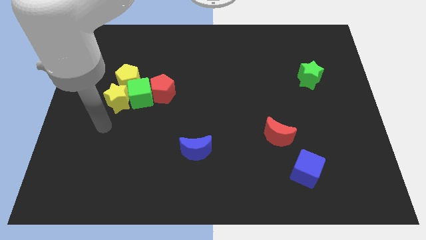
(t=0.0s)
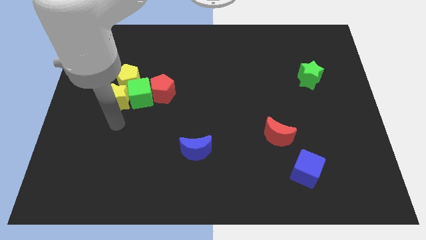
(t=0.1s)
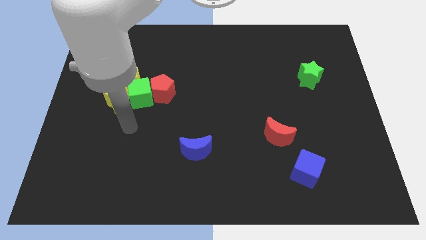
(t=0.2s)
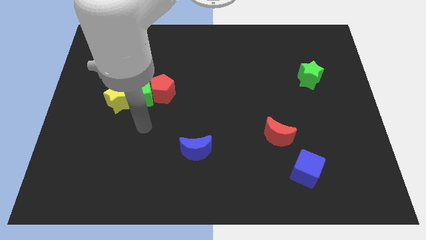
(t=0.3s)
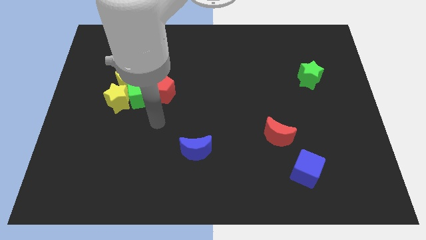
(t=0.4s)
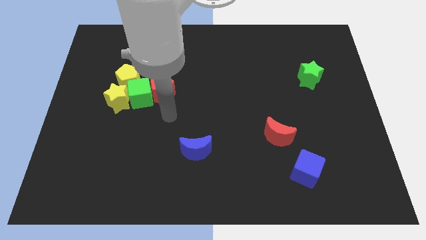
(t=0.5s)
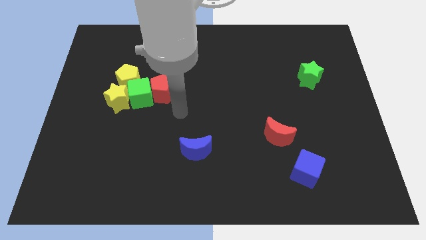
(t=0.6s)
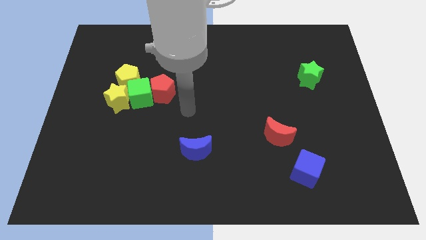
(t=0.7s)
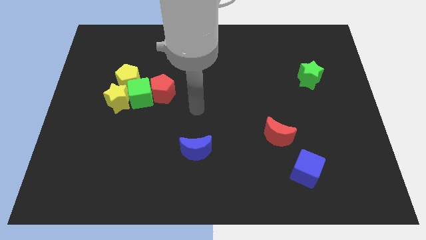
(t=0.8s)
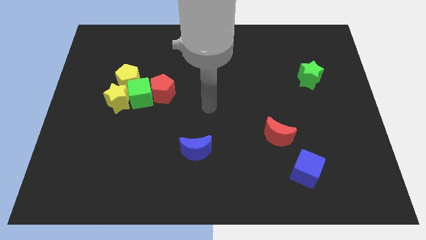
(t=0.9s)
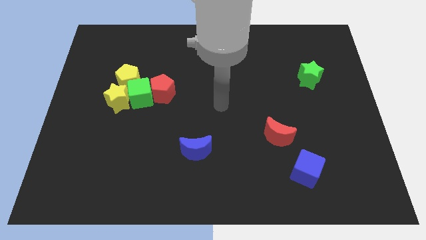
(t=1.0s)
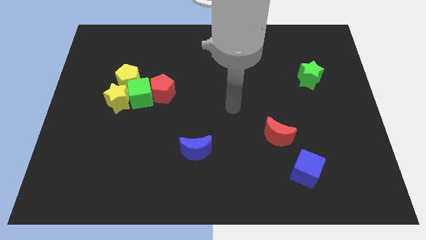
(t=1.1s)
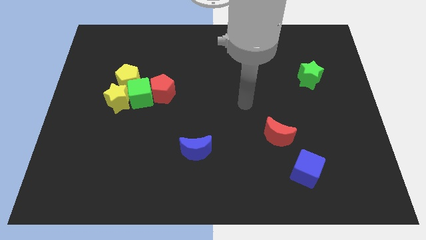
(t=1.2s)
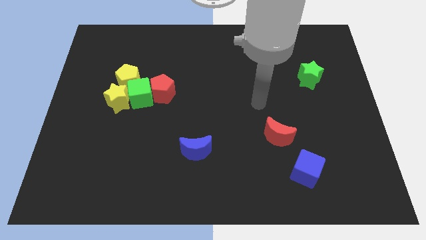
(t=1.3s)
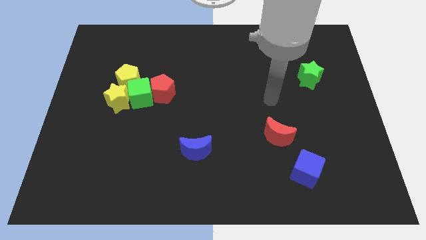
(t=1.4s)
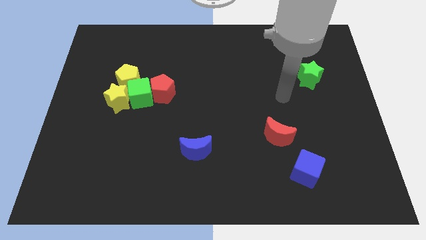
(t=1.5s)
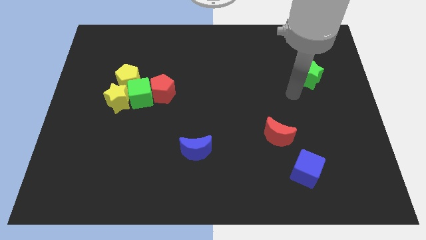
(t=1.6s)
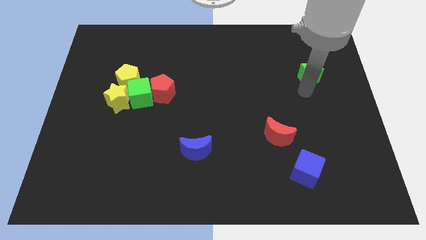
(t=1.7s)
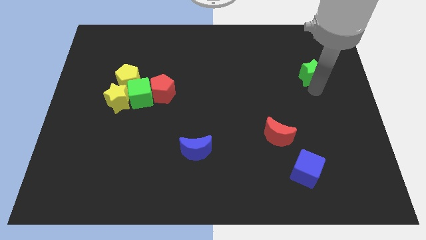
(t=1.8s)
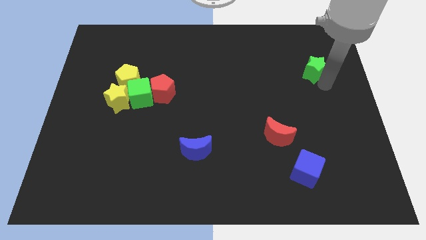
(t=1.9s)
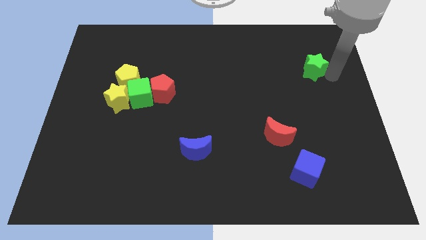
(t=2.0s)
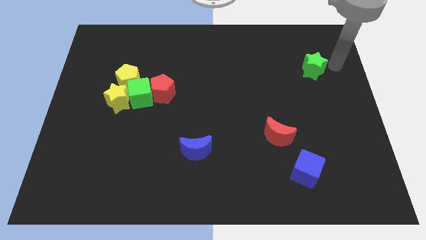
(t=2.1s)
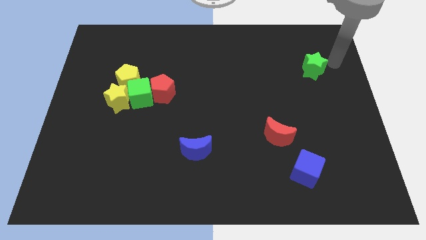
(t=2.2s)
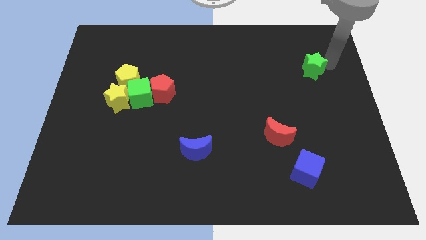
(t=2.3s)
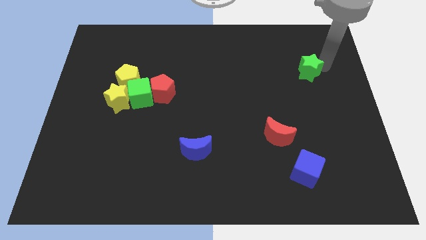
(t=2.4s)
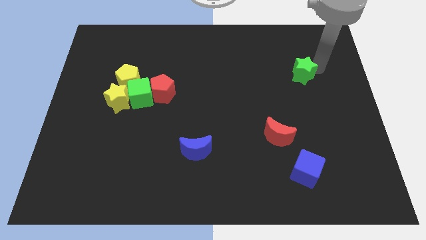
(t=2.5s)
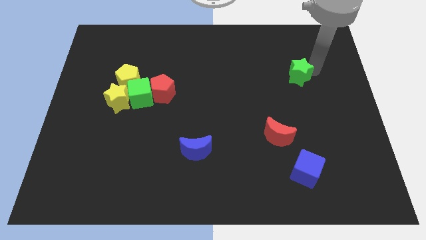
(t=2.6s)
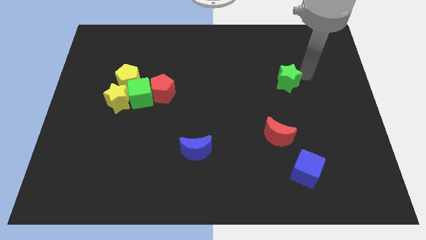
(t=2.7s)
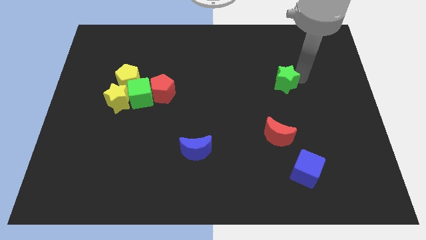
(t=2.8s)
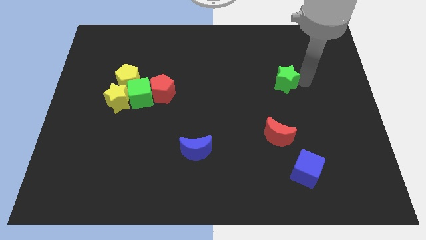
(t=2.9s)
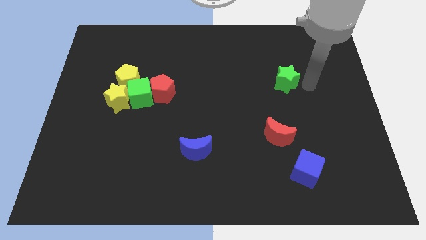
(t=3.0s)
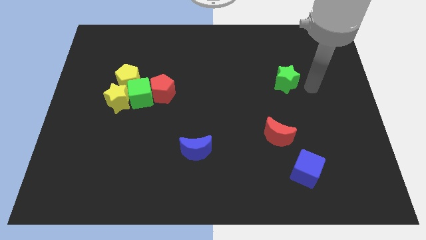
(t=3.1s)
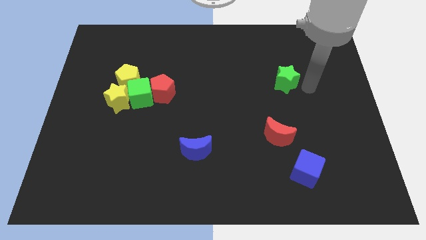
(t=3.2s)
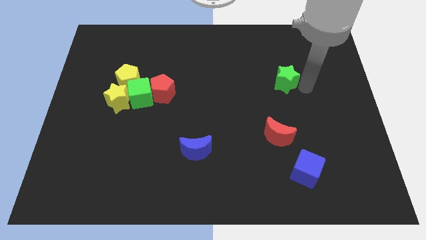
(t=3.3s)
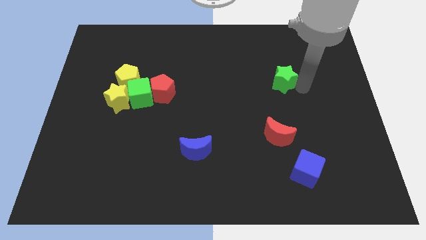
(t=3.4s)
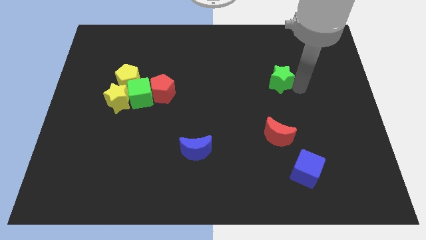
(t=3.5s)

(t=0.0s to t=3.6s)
slightly slide the green star to the left

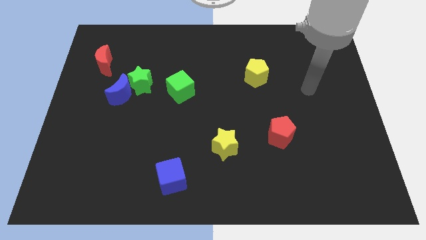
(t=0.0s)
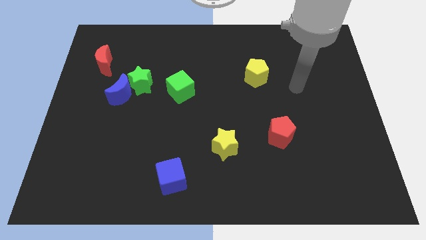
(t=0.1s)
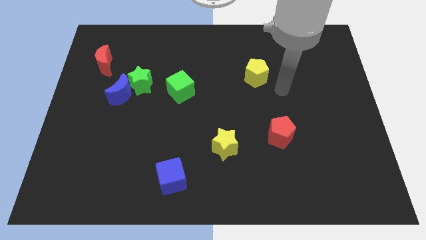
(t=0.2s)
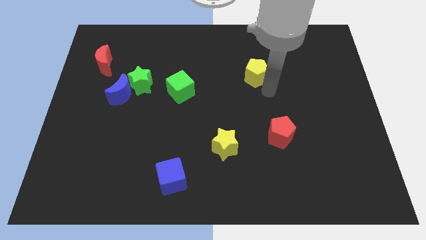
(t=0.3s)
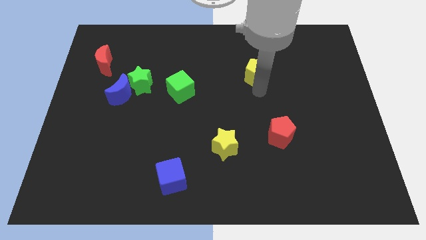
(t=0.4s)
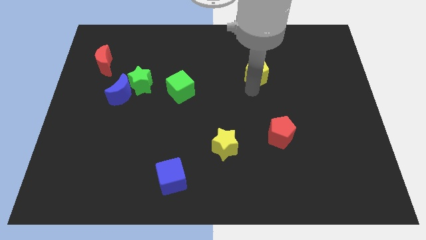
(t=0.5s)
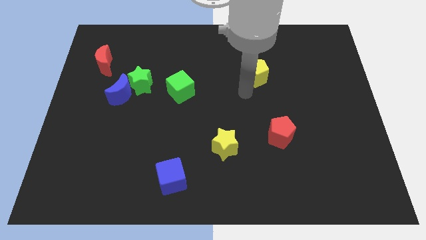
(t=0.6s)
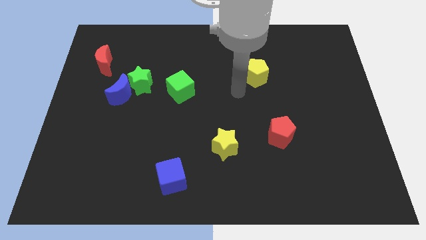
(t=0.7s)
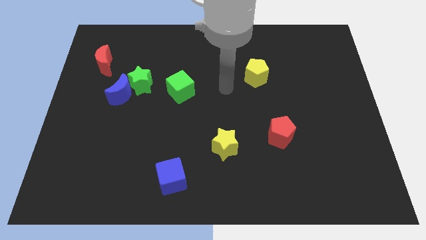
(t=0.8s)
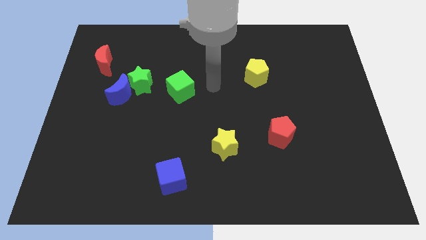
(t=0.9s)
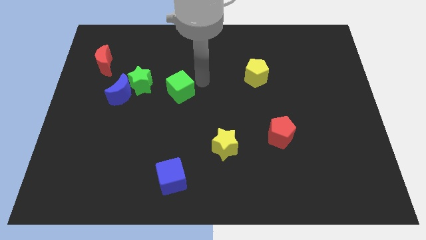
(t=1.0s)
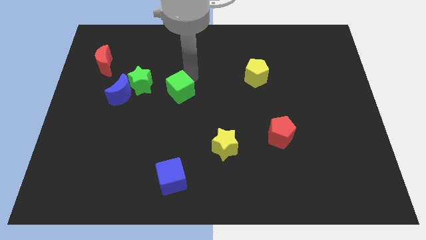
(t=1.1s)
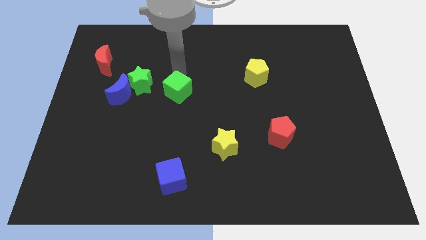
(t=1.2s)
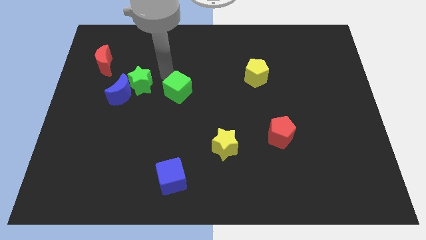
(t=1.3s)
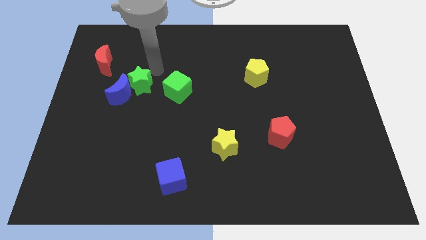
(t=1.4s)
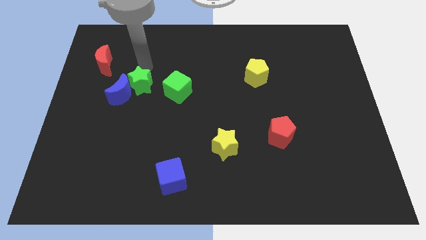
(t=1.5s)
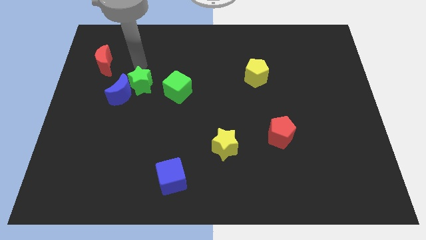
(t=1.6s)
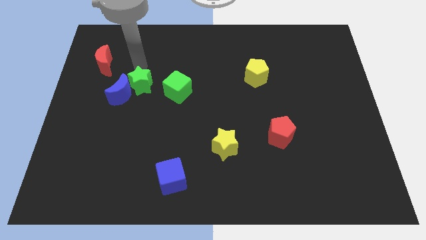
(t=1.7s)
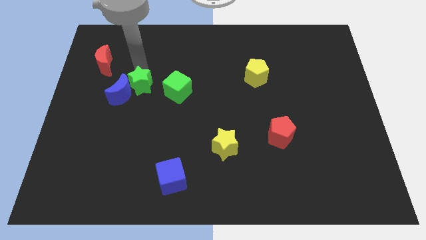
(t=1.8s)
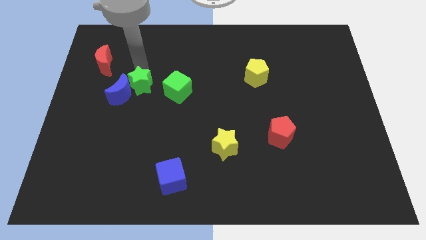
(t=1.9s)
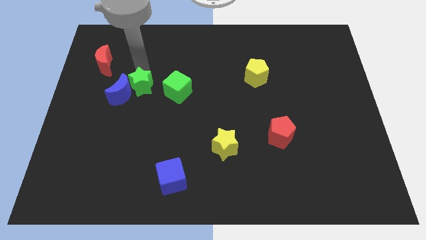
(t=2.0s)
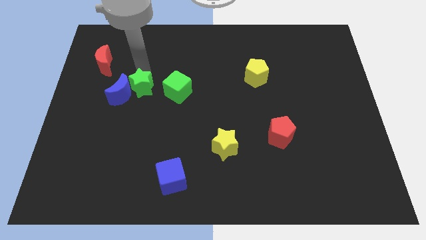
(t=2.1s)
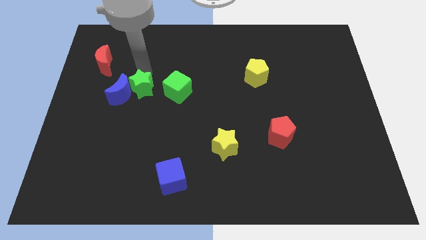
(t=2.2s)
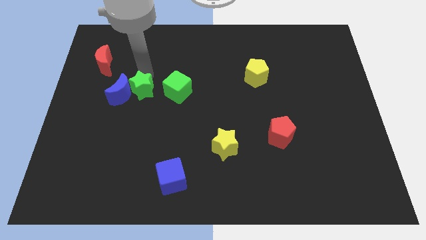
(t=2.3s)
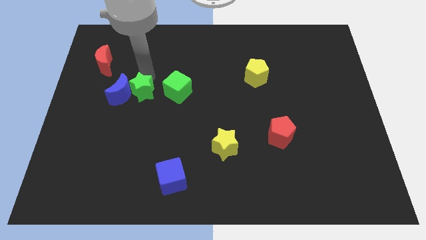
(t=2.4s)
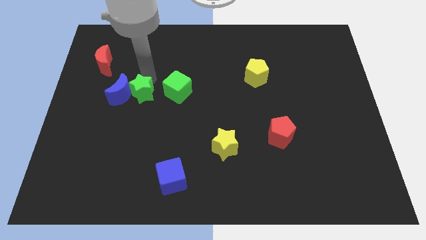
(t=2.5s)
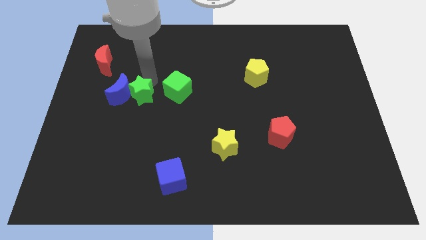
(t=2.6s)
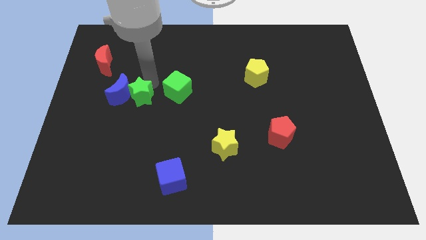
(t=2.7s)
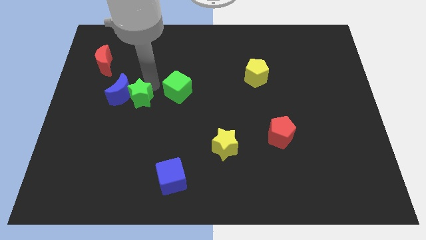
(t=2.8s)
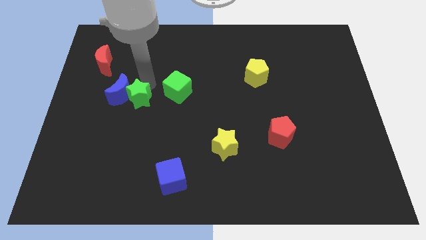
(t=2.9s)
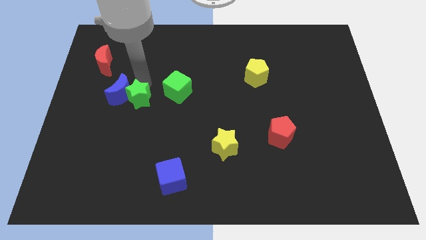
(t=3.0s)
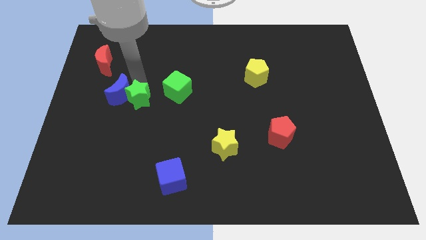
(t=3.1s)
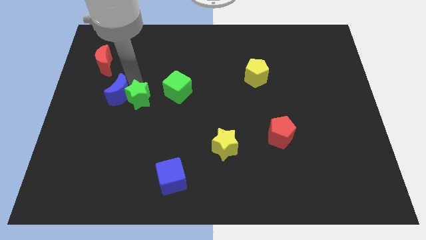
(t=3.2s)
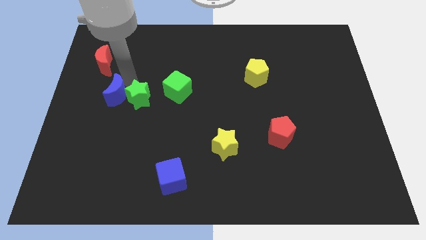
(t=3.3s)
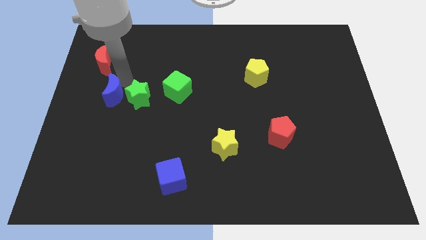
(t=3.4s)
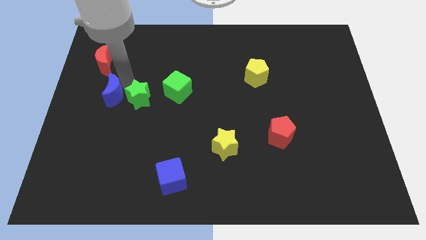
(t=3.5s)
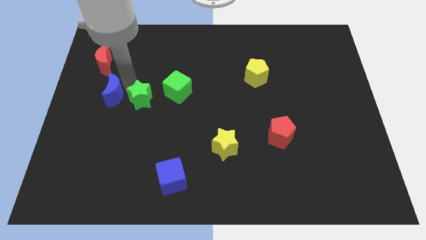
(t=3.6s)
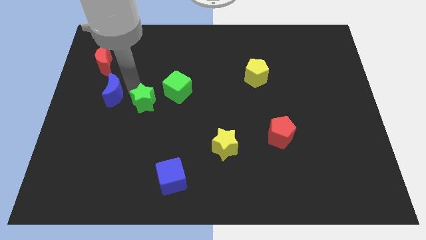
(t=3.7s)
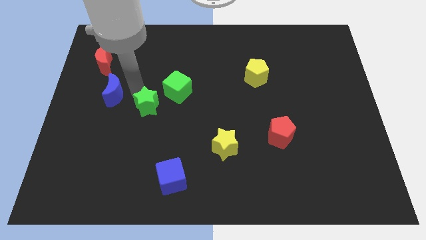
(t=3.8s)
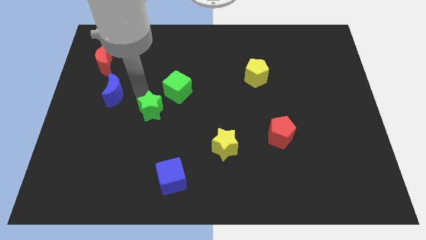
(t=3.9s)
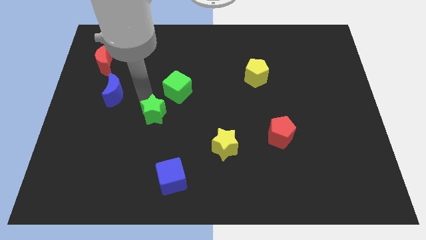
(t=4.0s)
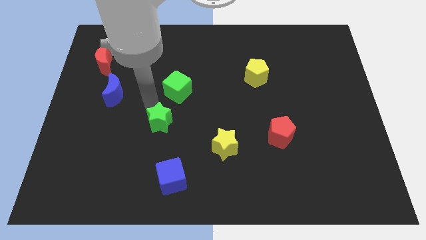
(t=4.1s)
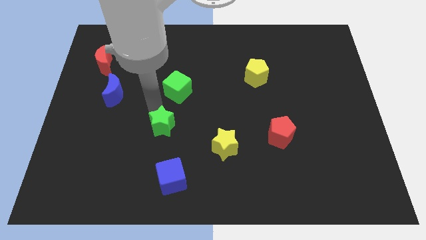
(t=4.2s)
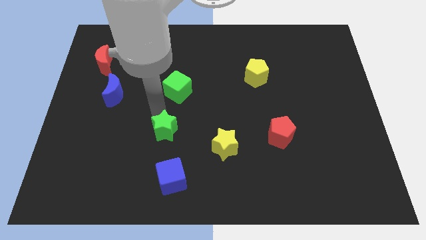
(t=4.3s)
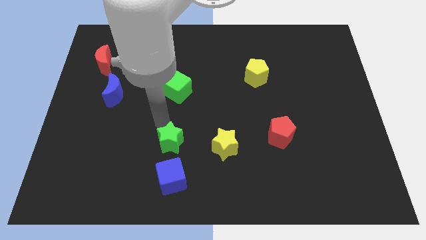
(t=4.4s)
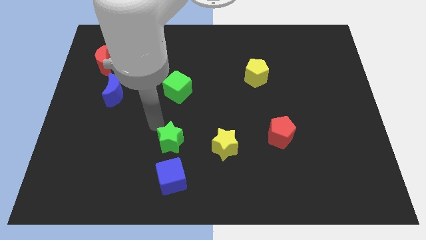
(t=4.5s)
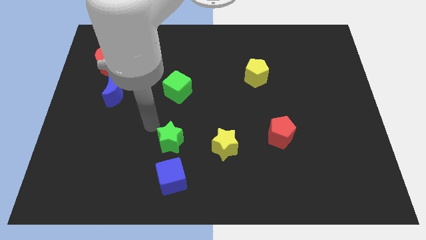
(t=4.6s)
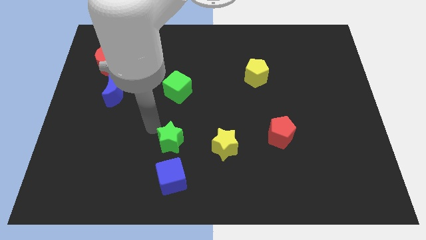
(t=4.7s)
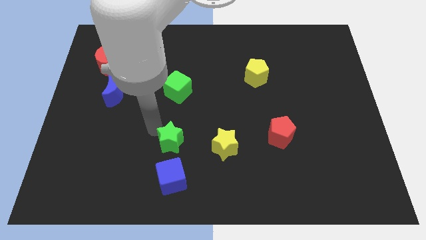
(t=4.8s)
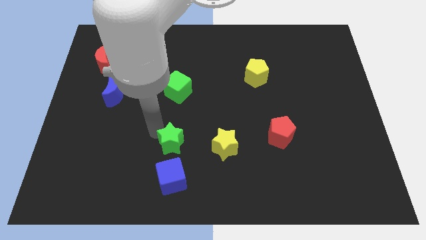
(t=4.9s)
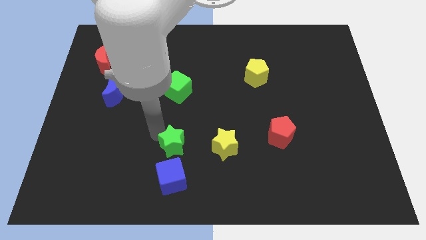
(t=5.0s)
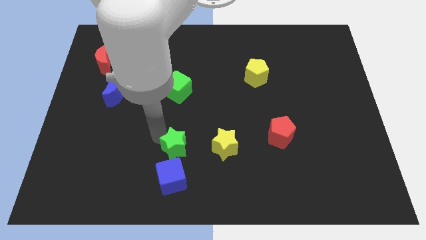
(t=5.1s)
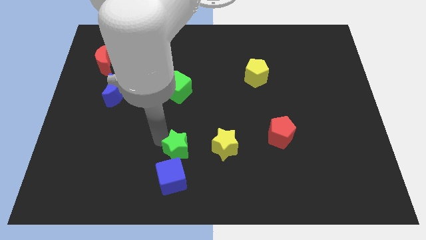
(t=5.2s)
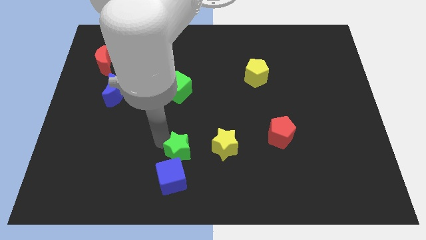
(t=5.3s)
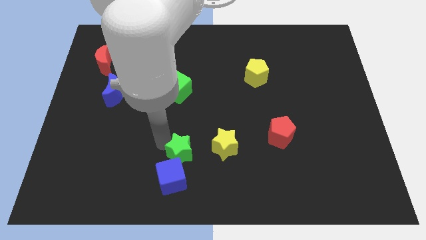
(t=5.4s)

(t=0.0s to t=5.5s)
move the green star downwards and to the right diagonally
